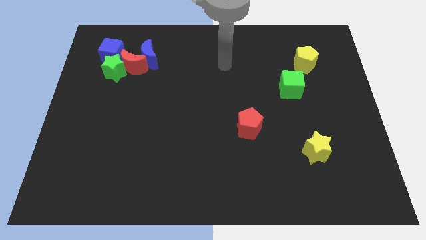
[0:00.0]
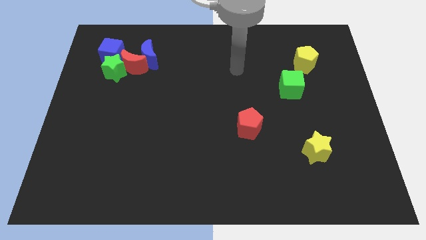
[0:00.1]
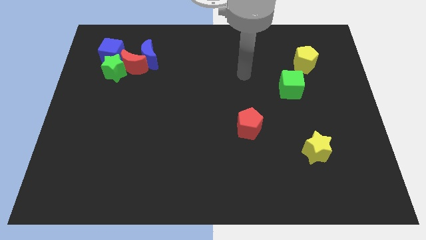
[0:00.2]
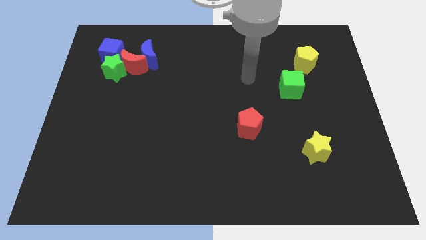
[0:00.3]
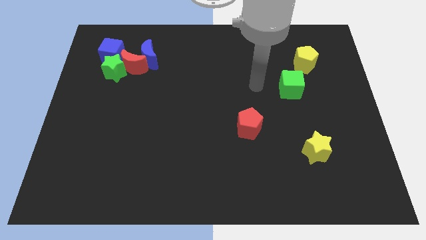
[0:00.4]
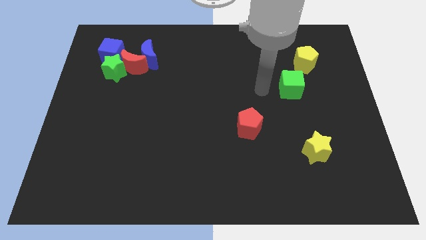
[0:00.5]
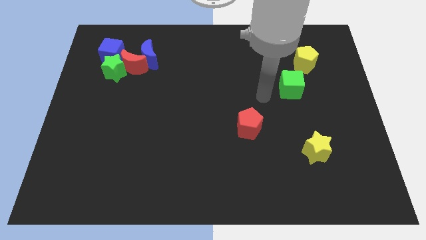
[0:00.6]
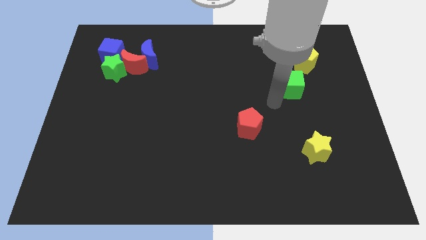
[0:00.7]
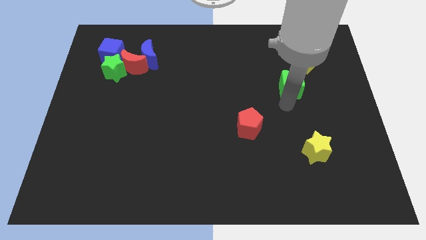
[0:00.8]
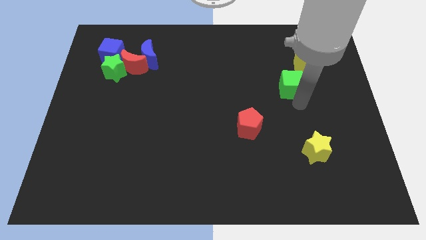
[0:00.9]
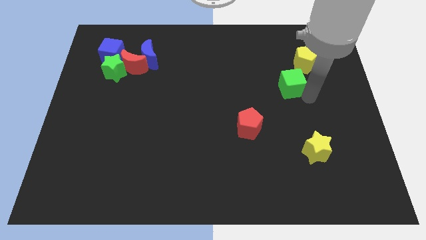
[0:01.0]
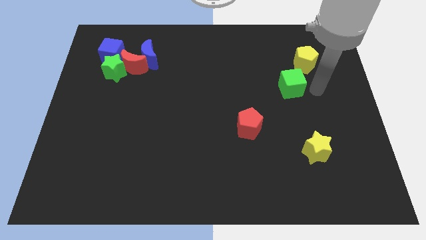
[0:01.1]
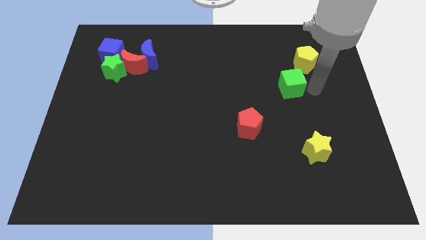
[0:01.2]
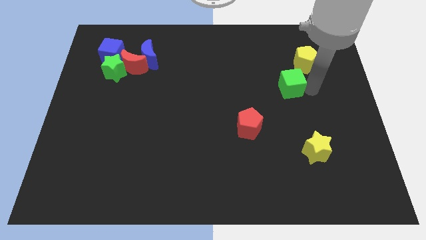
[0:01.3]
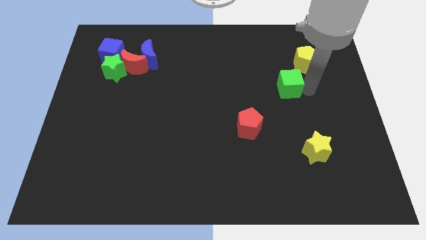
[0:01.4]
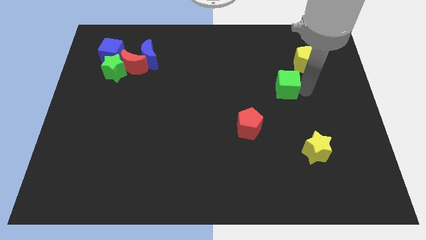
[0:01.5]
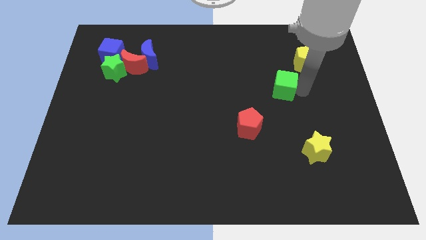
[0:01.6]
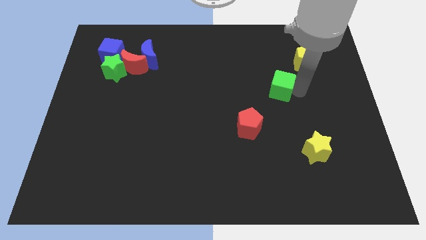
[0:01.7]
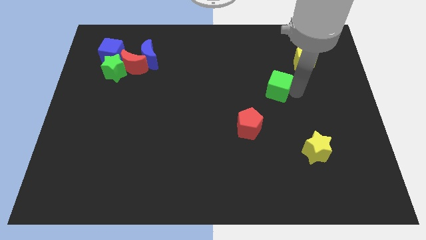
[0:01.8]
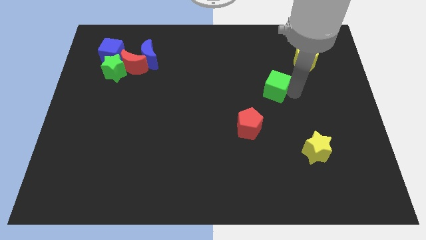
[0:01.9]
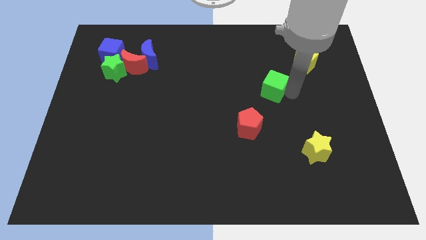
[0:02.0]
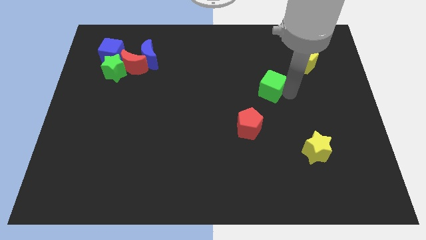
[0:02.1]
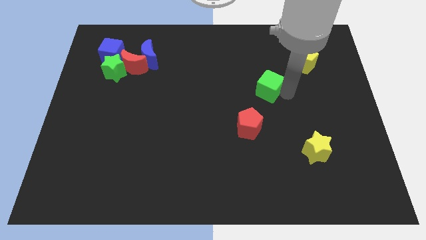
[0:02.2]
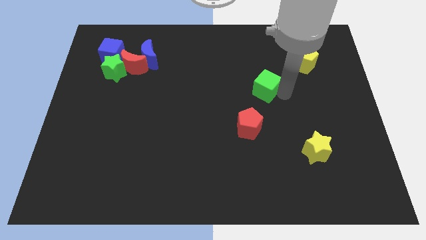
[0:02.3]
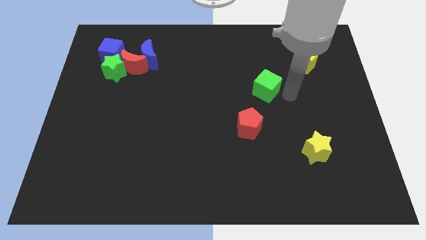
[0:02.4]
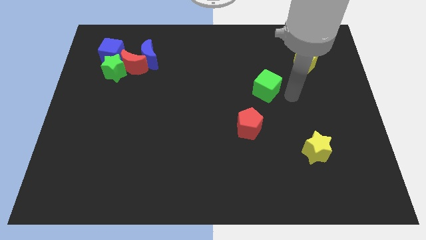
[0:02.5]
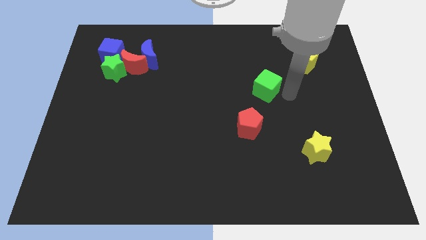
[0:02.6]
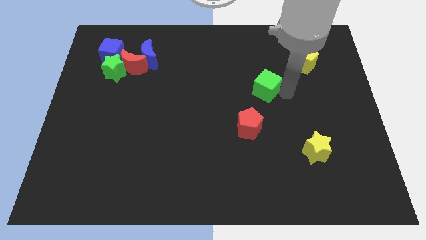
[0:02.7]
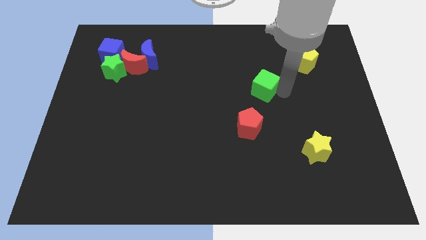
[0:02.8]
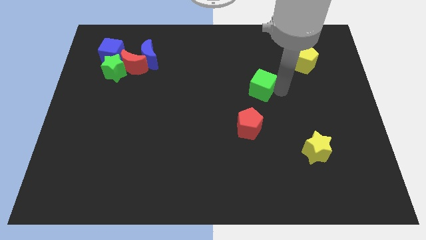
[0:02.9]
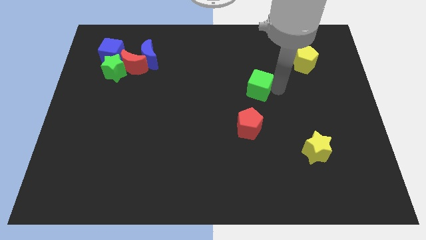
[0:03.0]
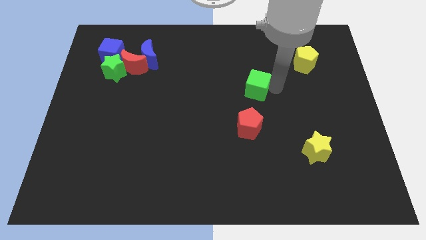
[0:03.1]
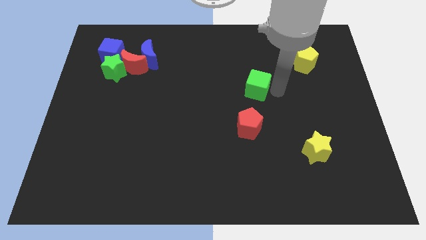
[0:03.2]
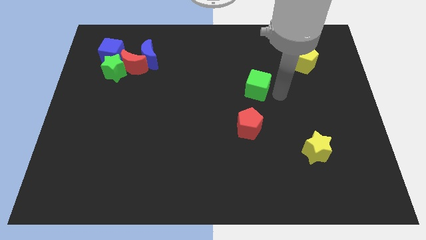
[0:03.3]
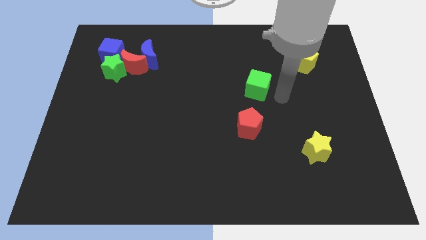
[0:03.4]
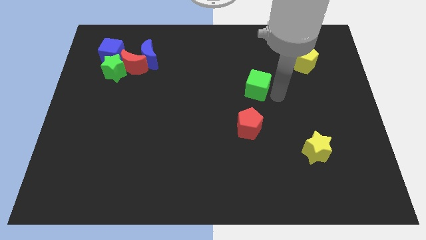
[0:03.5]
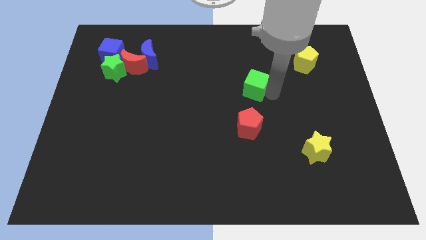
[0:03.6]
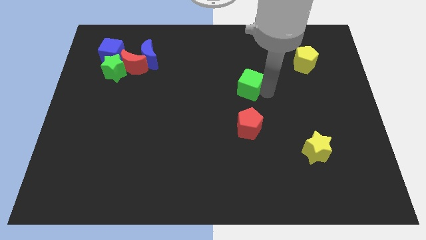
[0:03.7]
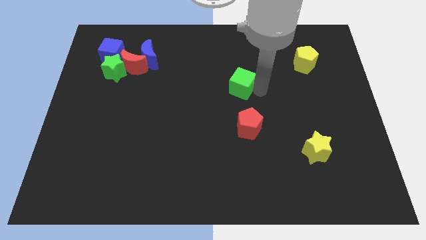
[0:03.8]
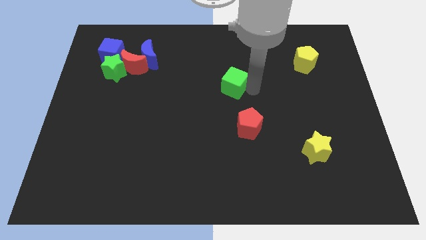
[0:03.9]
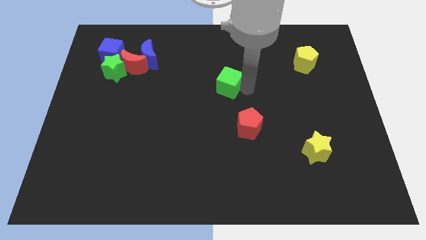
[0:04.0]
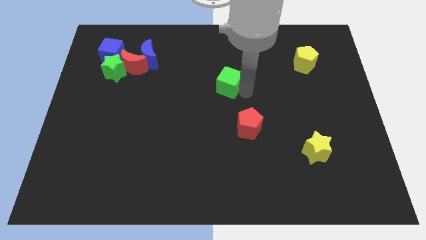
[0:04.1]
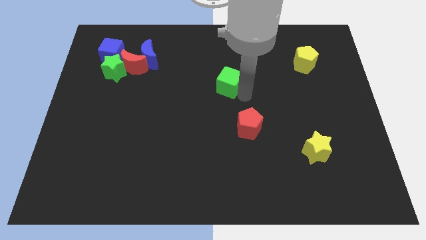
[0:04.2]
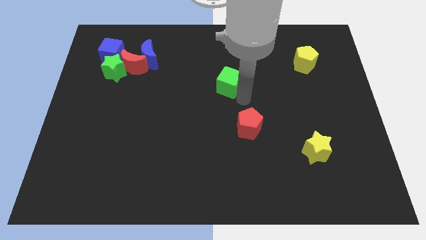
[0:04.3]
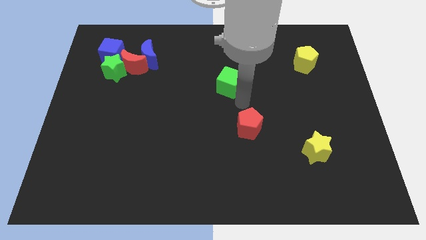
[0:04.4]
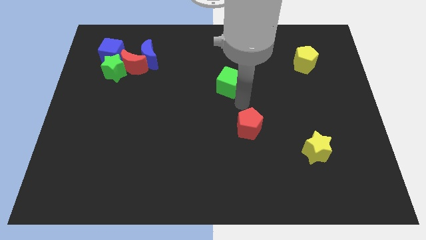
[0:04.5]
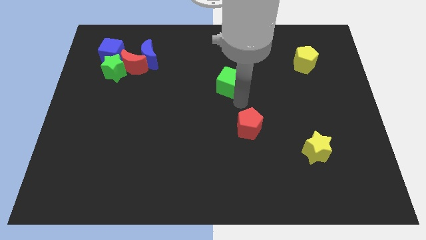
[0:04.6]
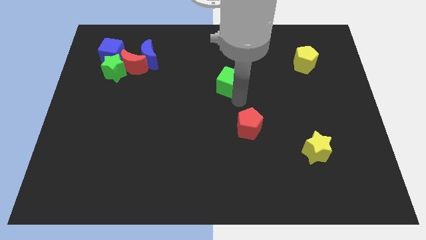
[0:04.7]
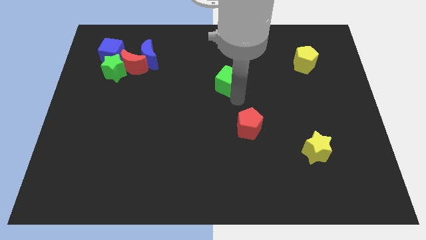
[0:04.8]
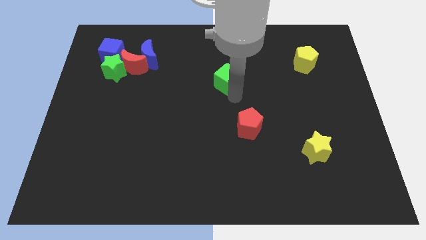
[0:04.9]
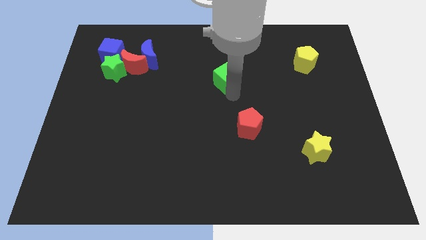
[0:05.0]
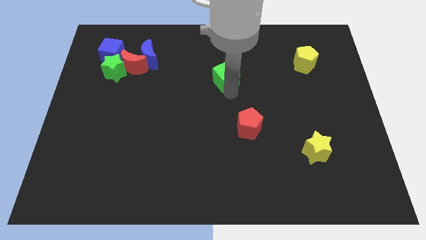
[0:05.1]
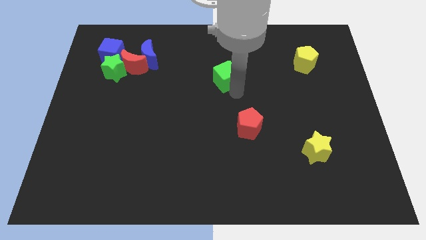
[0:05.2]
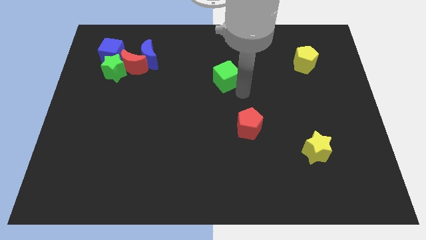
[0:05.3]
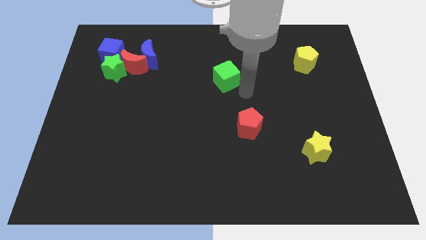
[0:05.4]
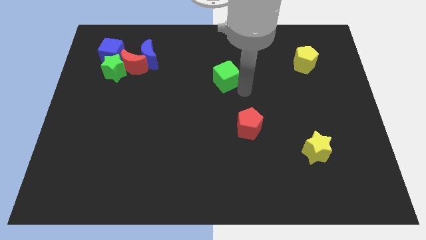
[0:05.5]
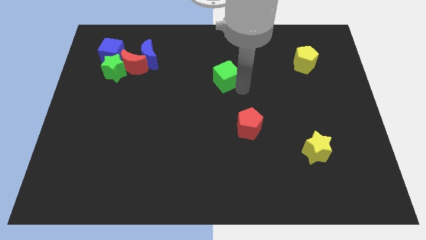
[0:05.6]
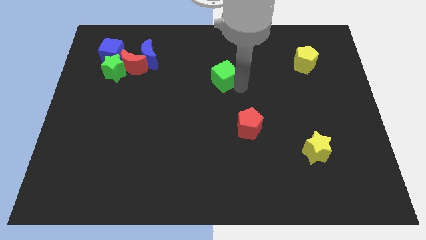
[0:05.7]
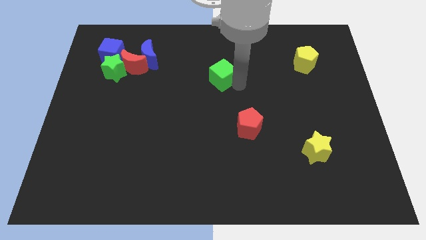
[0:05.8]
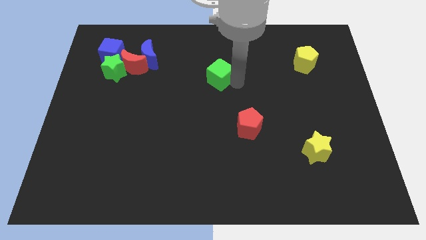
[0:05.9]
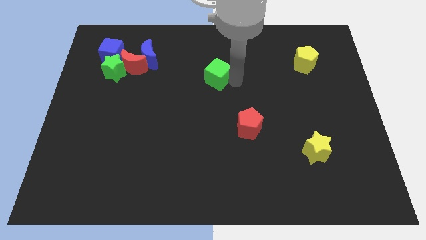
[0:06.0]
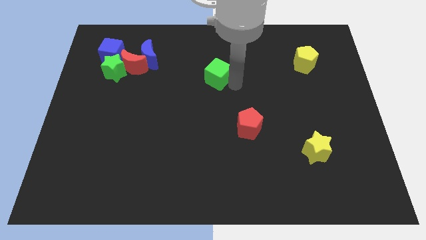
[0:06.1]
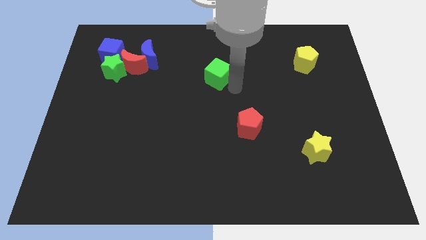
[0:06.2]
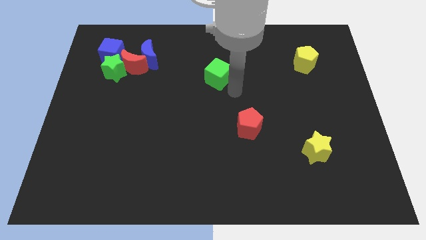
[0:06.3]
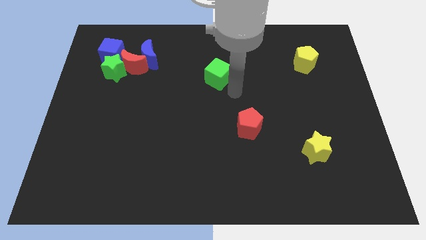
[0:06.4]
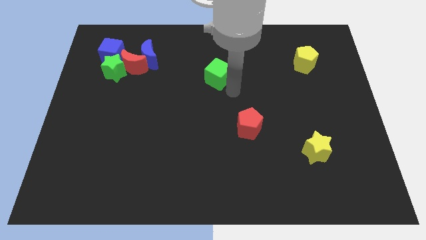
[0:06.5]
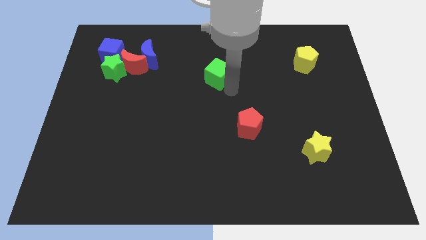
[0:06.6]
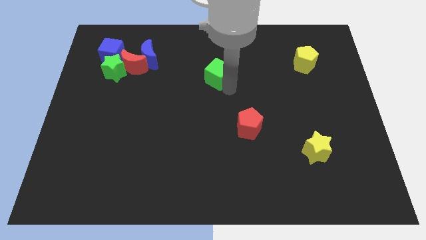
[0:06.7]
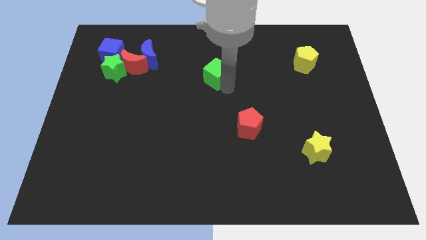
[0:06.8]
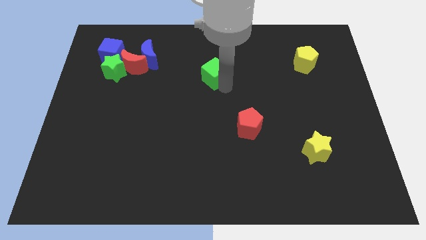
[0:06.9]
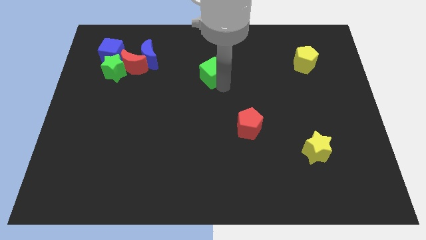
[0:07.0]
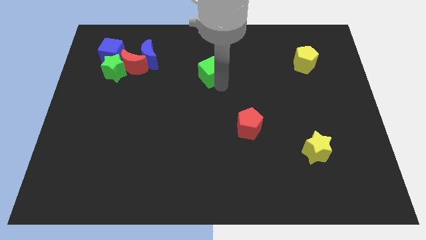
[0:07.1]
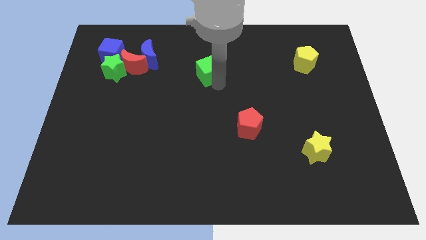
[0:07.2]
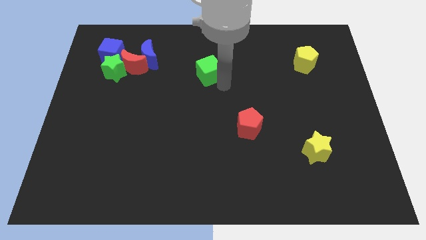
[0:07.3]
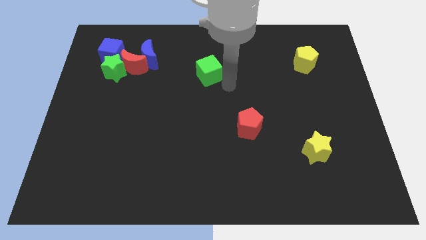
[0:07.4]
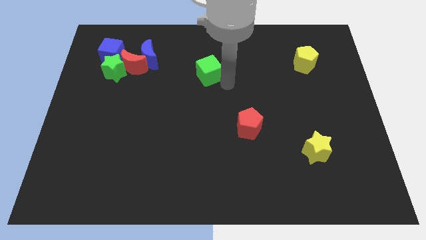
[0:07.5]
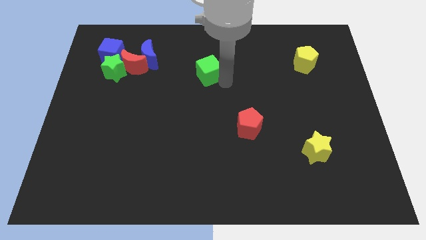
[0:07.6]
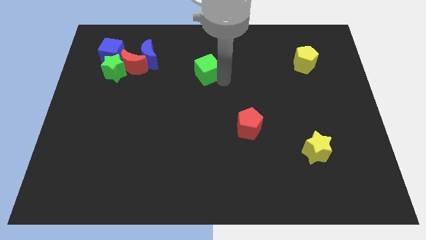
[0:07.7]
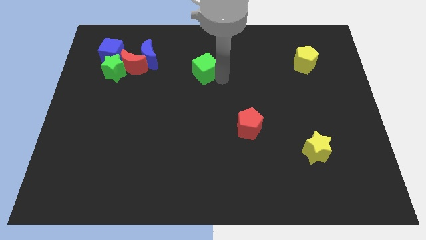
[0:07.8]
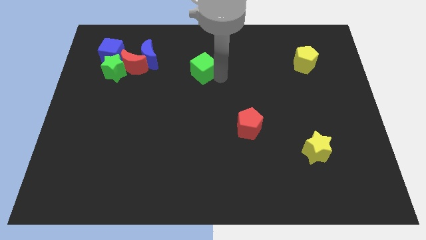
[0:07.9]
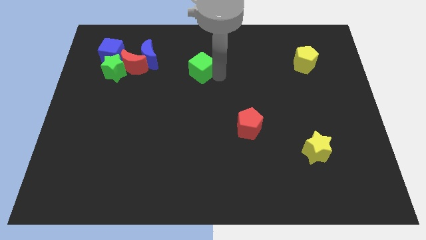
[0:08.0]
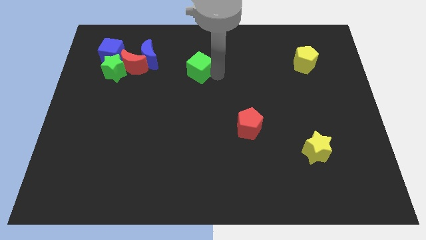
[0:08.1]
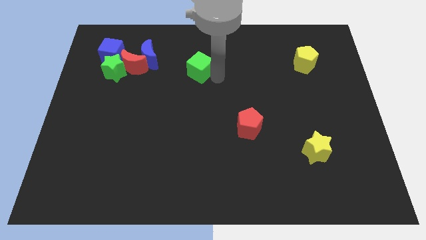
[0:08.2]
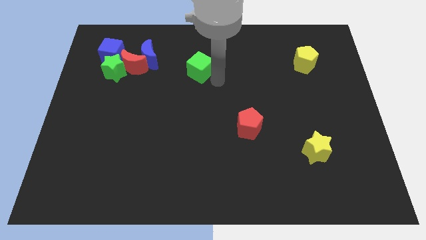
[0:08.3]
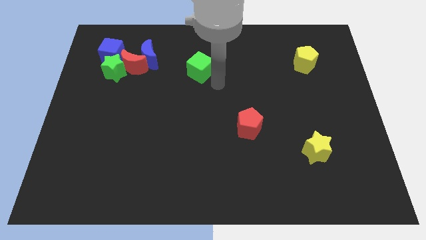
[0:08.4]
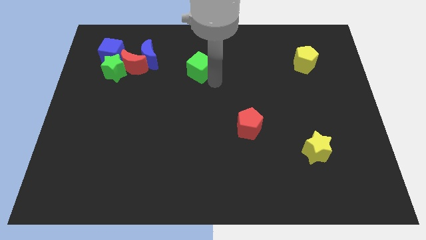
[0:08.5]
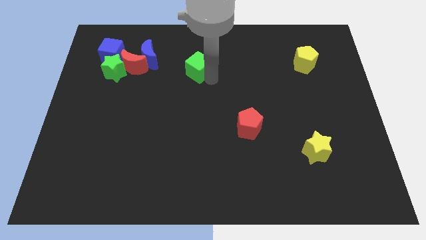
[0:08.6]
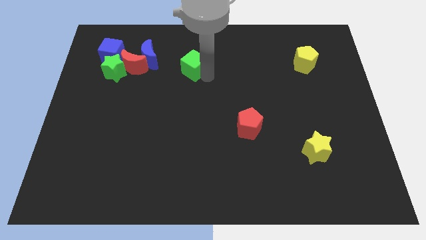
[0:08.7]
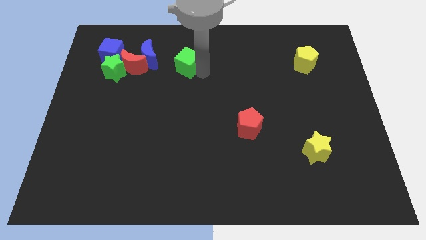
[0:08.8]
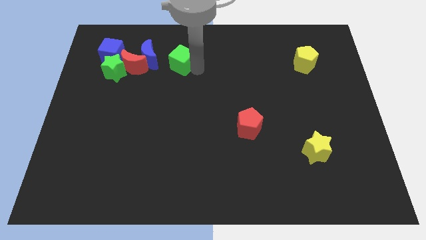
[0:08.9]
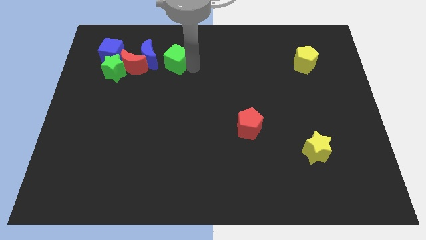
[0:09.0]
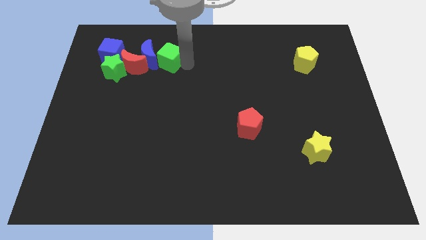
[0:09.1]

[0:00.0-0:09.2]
move the green cube next to the blue moon
